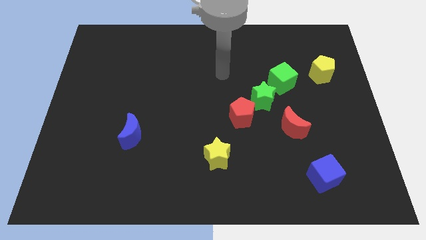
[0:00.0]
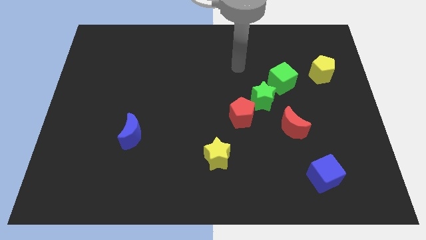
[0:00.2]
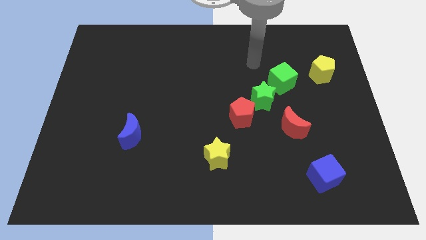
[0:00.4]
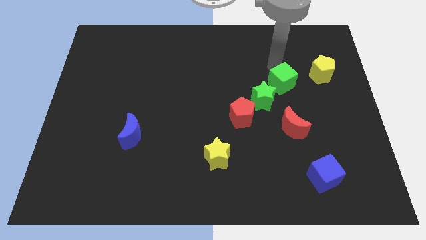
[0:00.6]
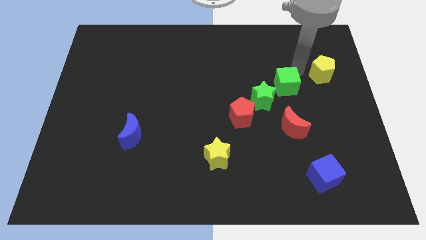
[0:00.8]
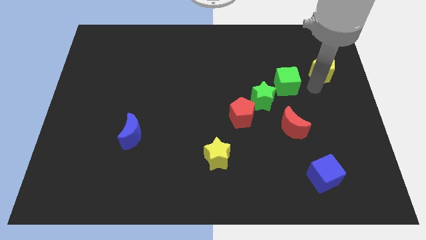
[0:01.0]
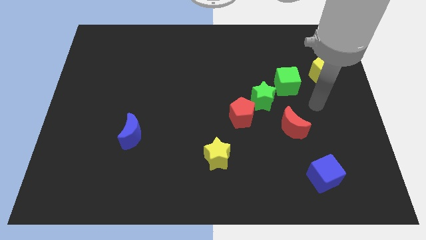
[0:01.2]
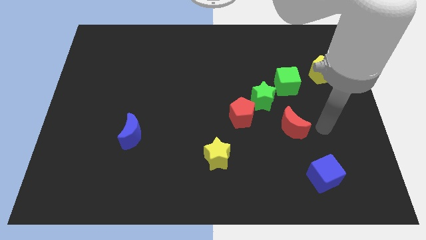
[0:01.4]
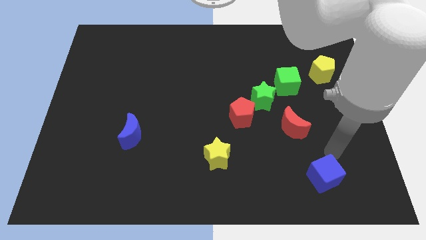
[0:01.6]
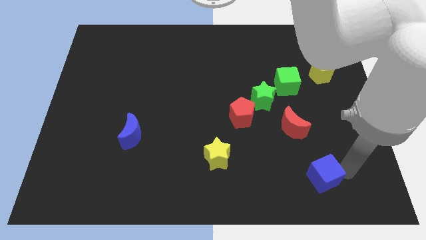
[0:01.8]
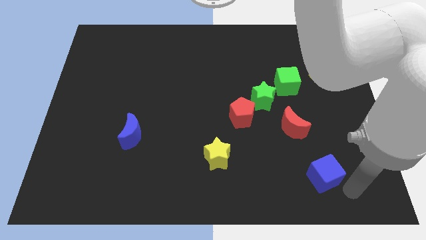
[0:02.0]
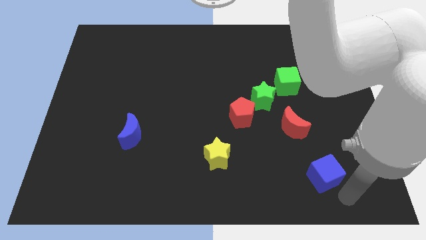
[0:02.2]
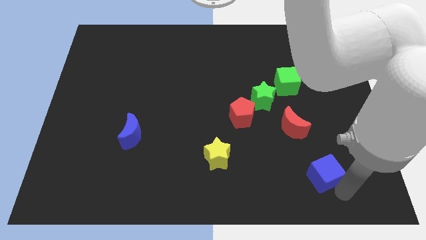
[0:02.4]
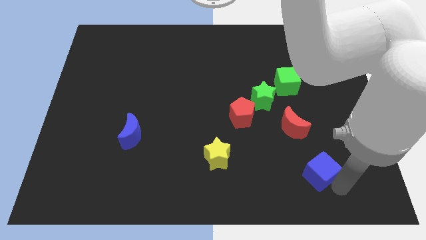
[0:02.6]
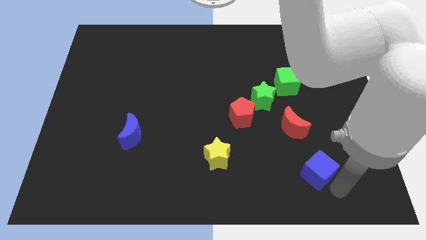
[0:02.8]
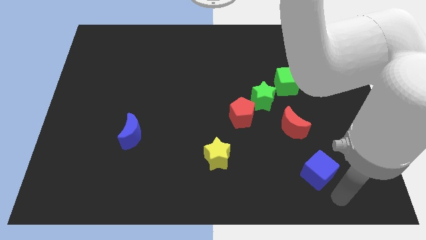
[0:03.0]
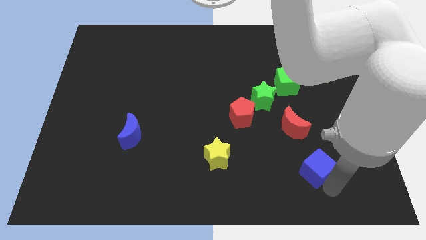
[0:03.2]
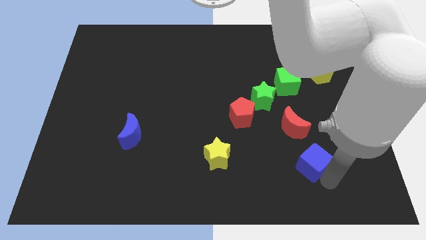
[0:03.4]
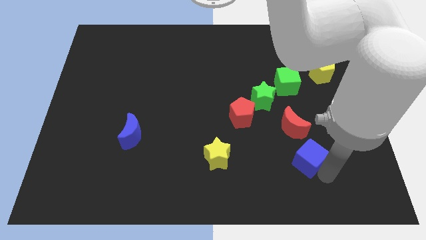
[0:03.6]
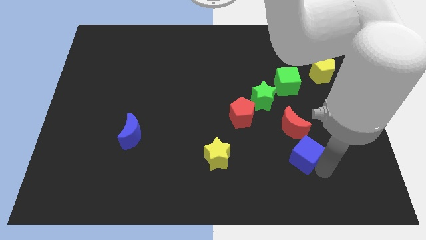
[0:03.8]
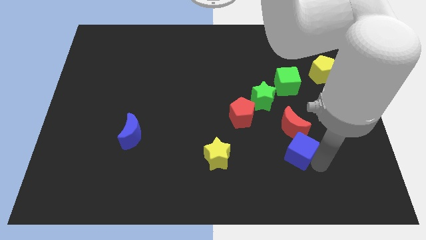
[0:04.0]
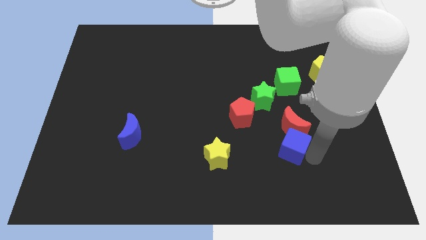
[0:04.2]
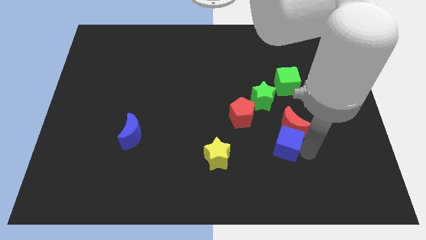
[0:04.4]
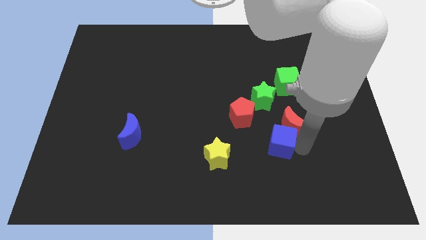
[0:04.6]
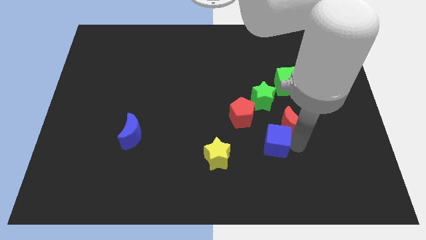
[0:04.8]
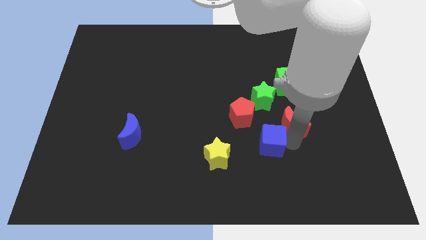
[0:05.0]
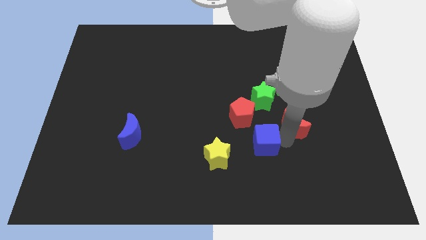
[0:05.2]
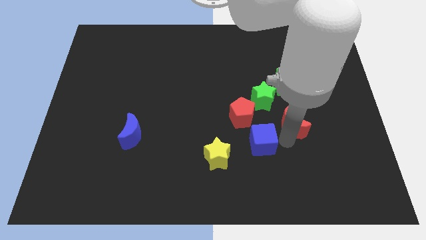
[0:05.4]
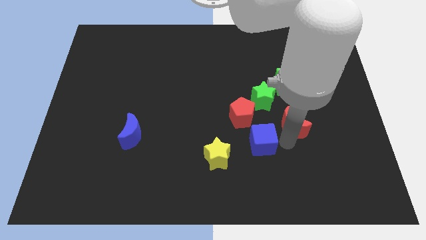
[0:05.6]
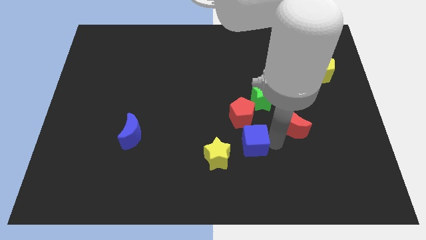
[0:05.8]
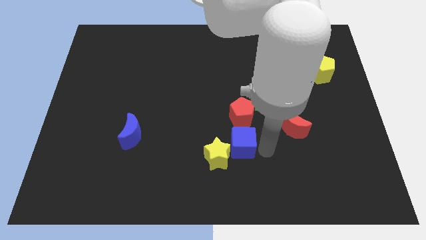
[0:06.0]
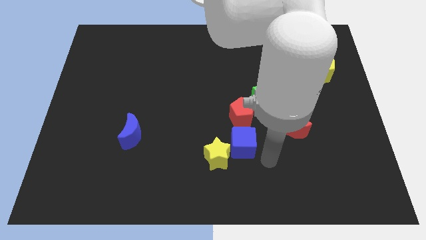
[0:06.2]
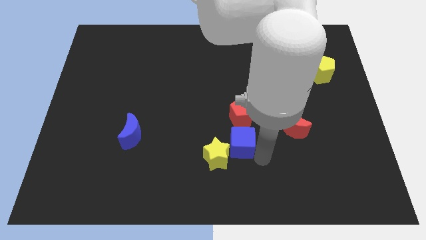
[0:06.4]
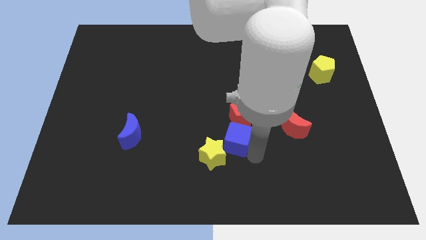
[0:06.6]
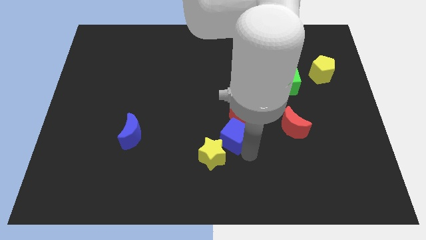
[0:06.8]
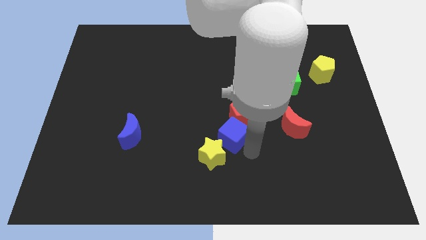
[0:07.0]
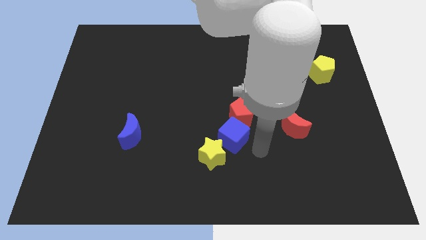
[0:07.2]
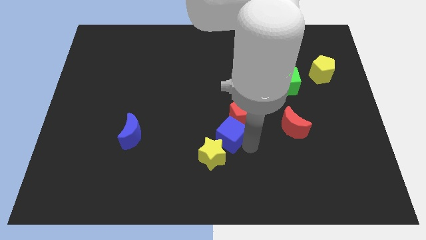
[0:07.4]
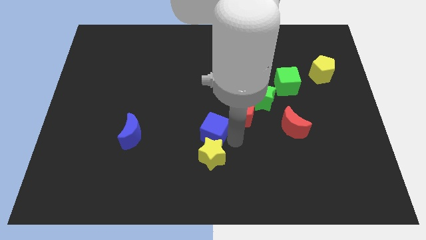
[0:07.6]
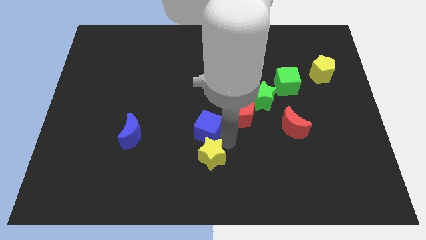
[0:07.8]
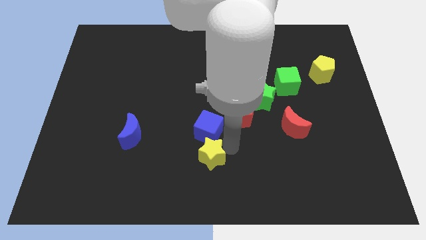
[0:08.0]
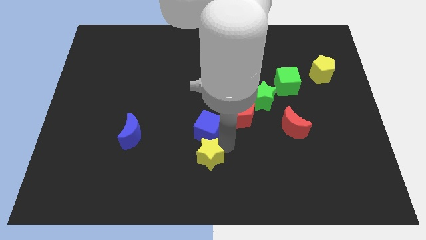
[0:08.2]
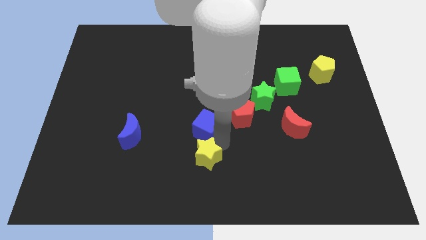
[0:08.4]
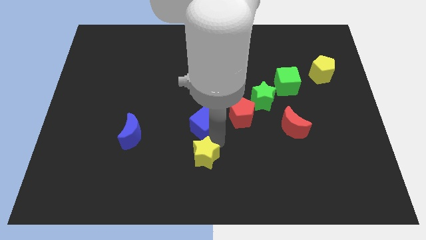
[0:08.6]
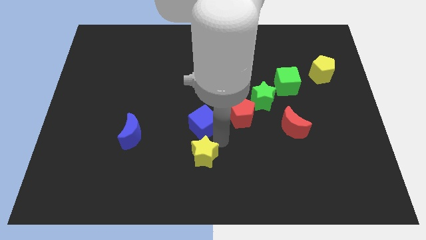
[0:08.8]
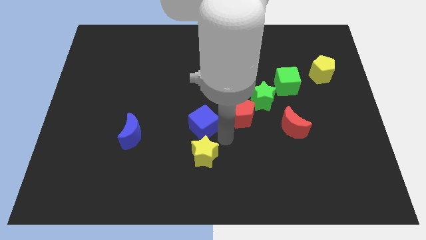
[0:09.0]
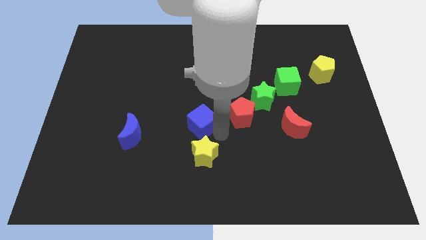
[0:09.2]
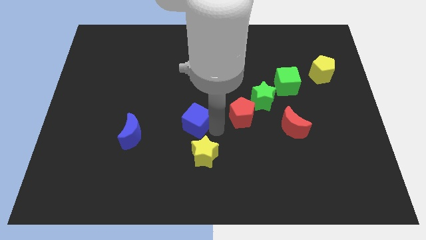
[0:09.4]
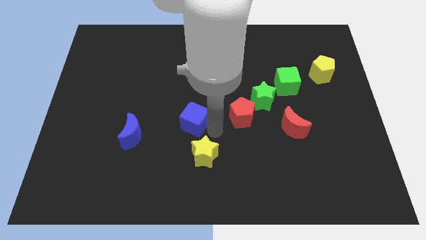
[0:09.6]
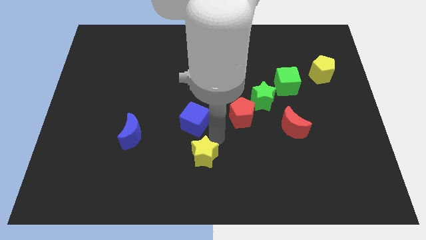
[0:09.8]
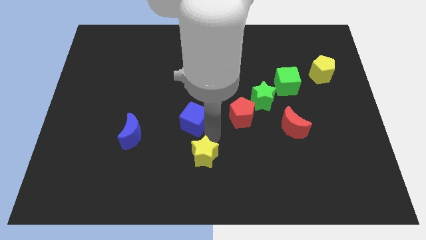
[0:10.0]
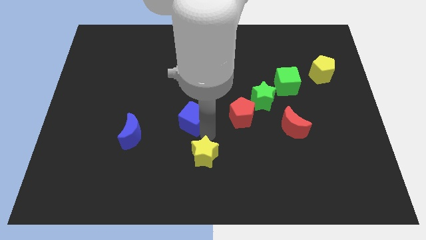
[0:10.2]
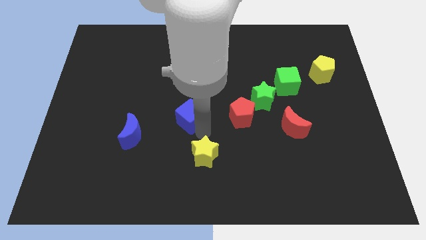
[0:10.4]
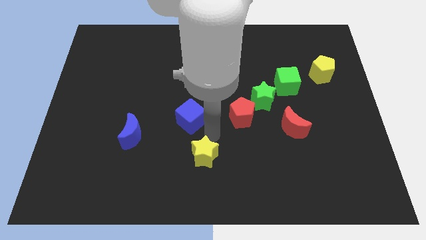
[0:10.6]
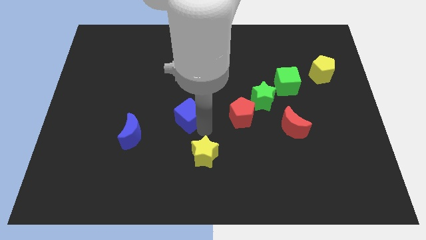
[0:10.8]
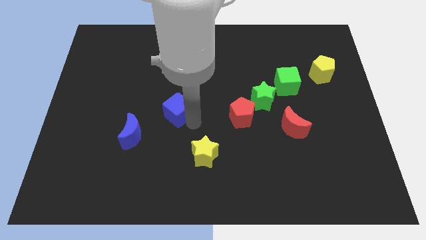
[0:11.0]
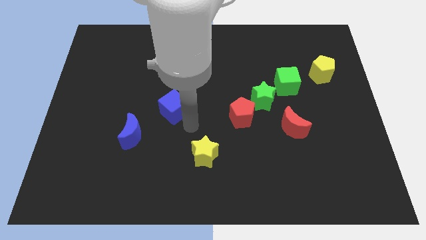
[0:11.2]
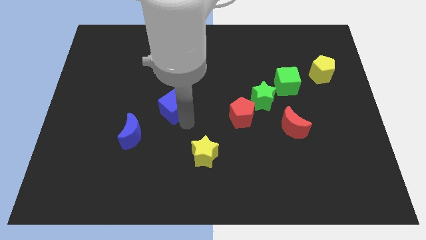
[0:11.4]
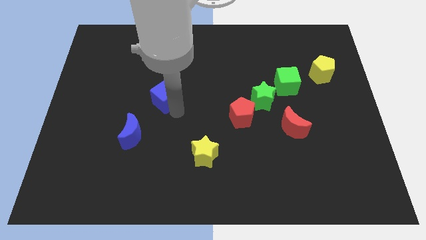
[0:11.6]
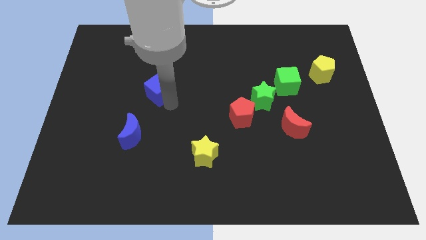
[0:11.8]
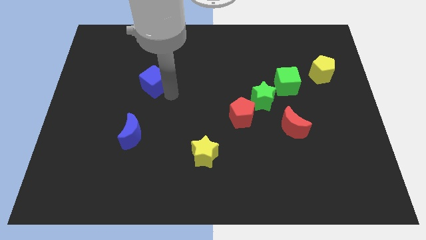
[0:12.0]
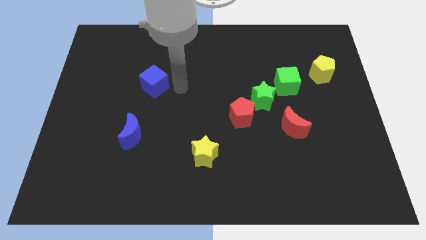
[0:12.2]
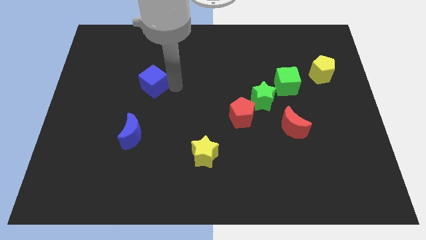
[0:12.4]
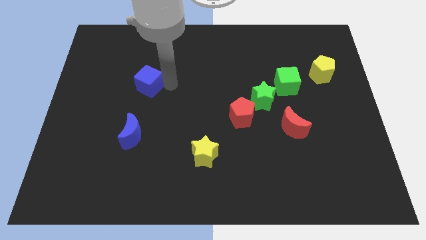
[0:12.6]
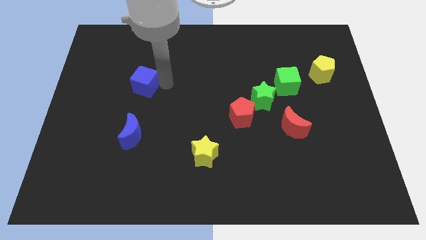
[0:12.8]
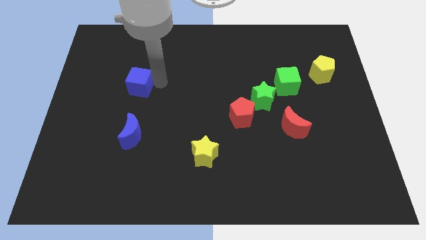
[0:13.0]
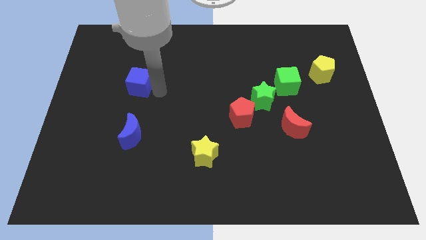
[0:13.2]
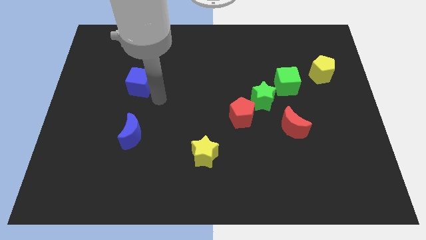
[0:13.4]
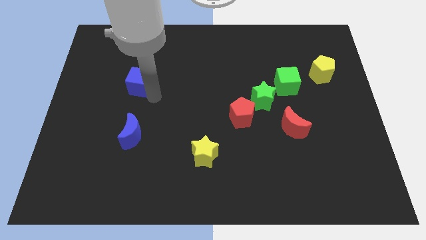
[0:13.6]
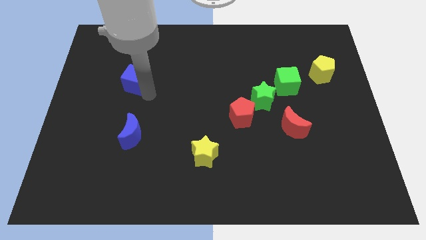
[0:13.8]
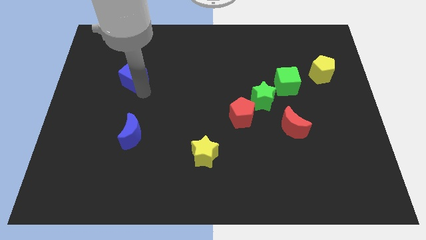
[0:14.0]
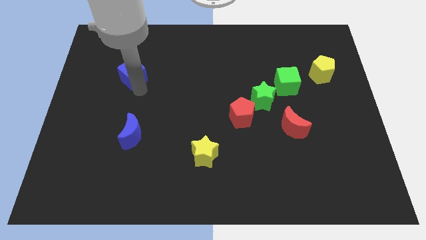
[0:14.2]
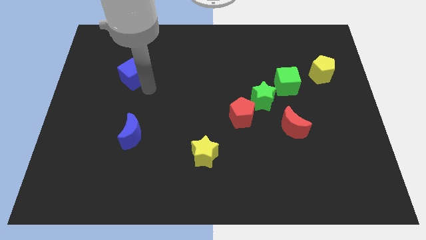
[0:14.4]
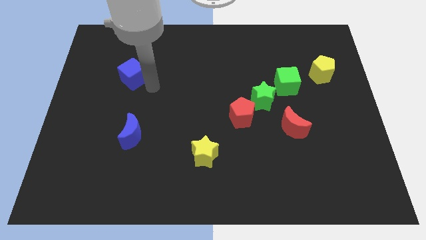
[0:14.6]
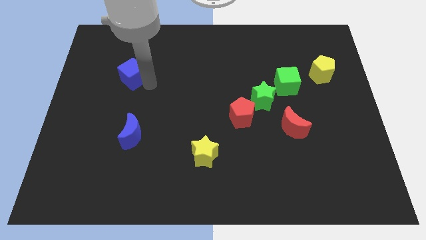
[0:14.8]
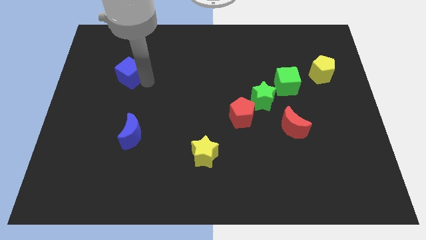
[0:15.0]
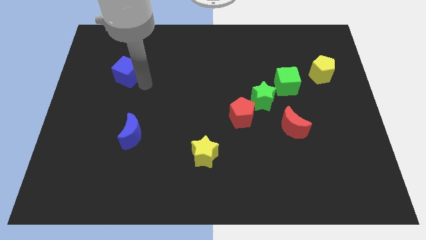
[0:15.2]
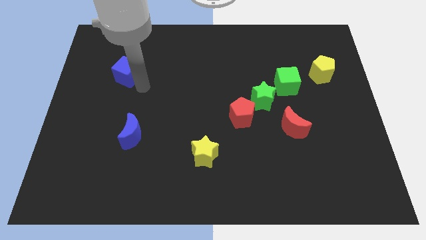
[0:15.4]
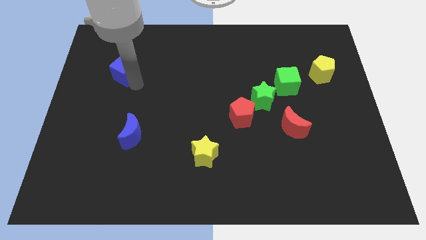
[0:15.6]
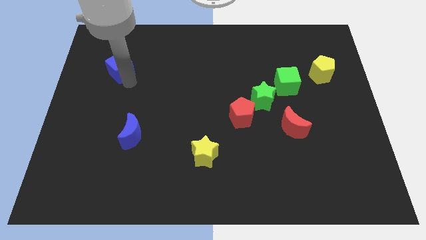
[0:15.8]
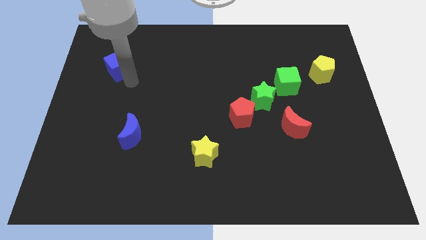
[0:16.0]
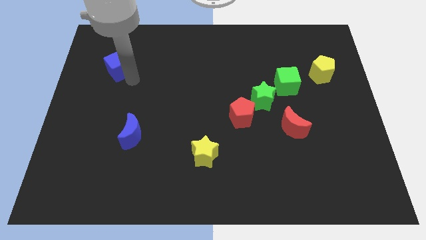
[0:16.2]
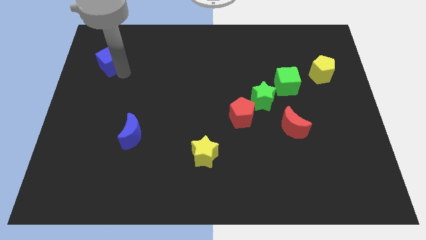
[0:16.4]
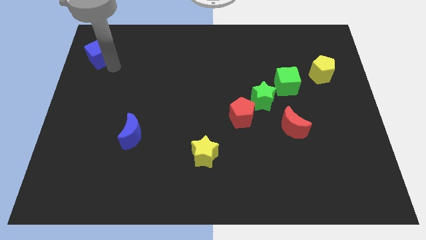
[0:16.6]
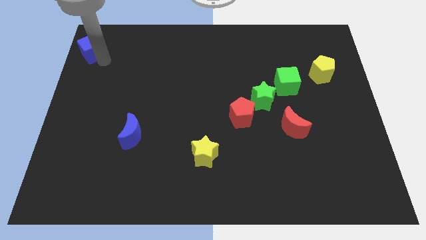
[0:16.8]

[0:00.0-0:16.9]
slide the blue cube to the top left of the board
